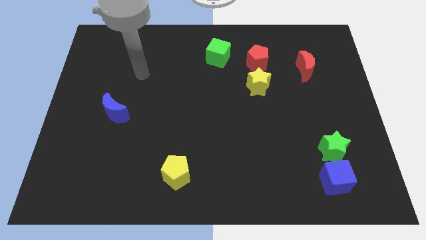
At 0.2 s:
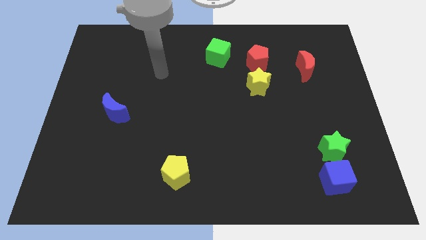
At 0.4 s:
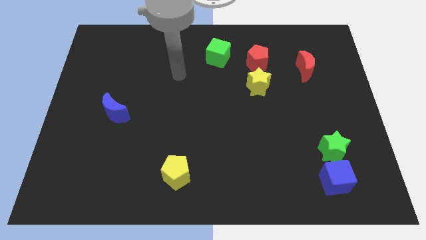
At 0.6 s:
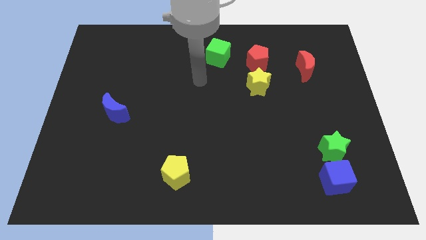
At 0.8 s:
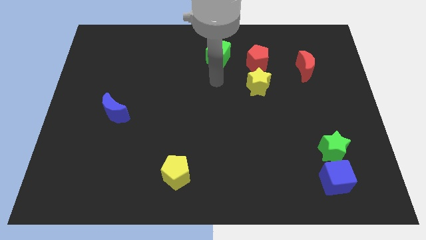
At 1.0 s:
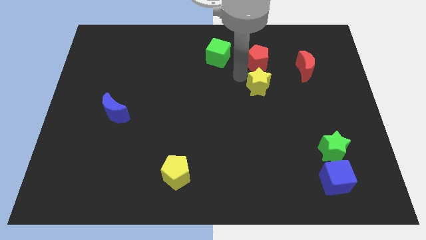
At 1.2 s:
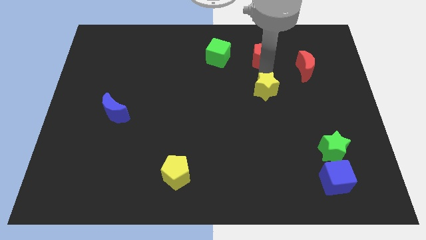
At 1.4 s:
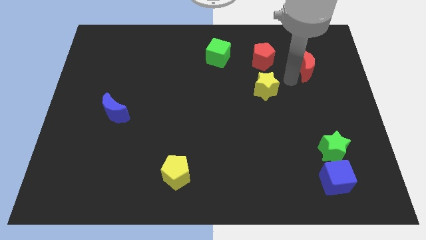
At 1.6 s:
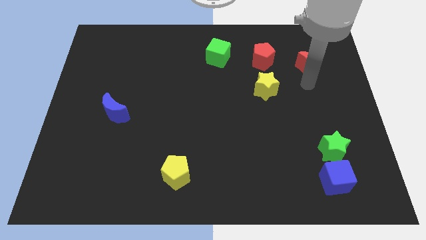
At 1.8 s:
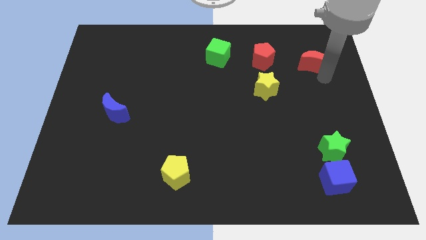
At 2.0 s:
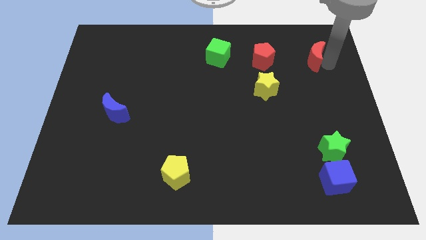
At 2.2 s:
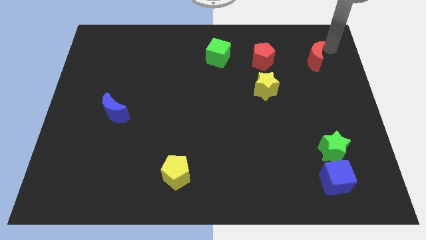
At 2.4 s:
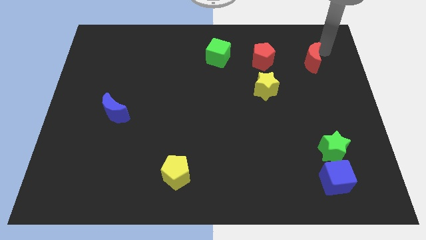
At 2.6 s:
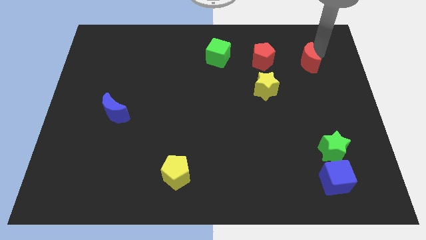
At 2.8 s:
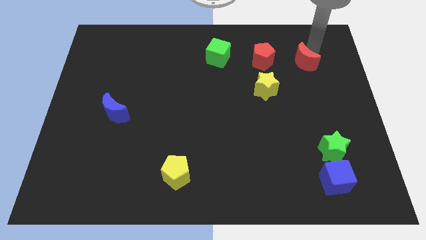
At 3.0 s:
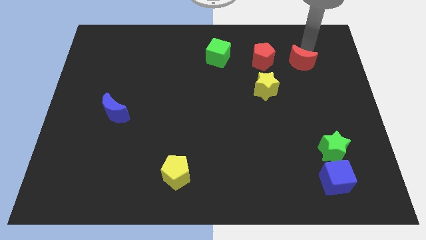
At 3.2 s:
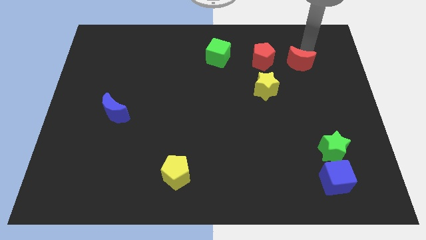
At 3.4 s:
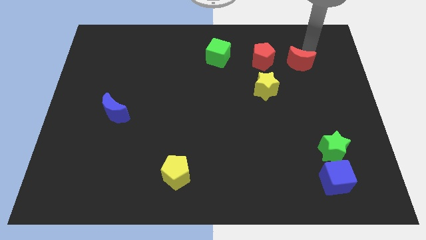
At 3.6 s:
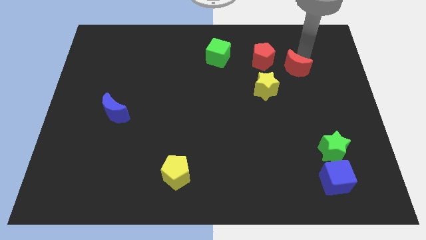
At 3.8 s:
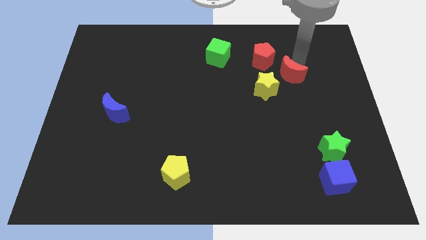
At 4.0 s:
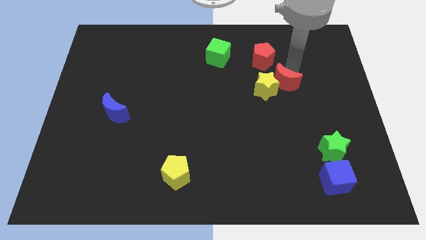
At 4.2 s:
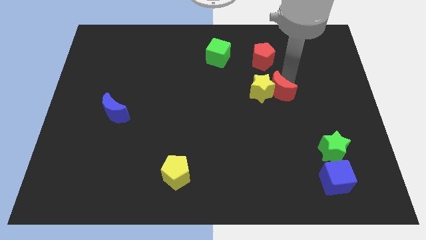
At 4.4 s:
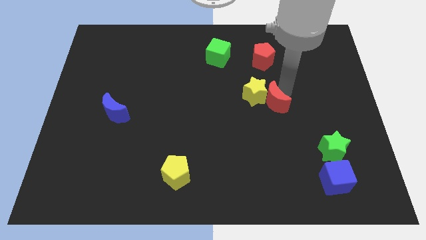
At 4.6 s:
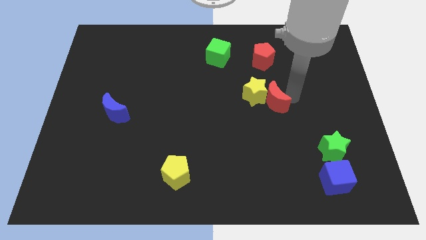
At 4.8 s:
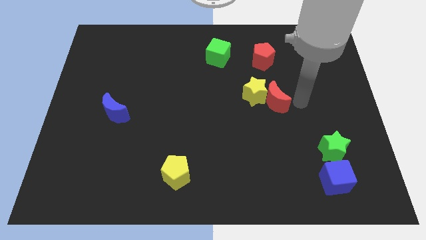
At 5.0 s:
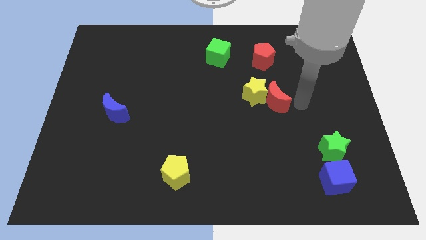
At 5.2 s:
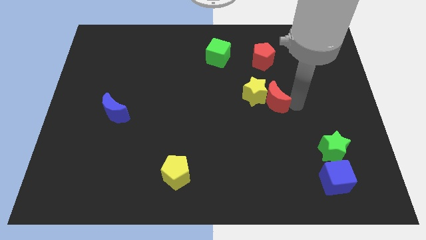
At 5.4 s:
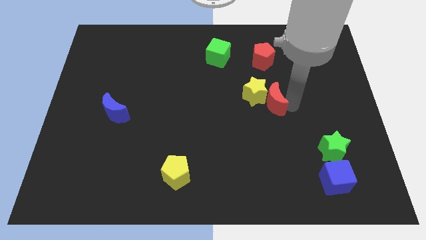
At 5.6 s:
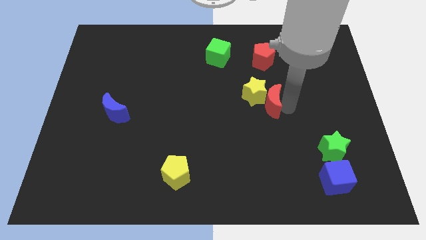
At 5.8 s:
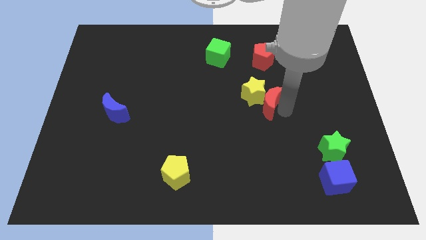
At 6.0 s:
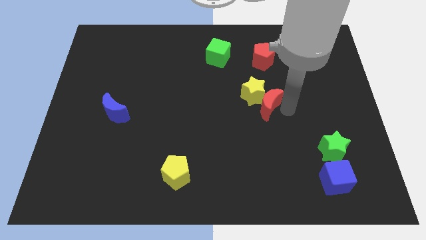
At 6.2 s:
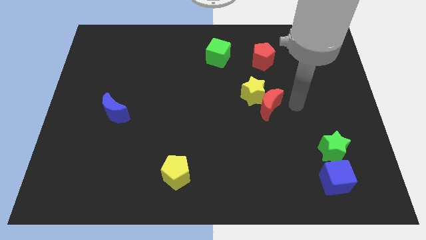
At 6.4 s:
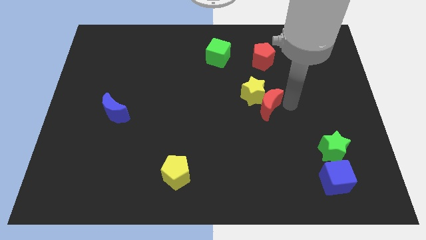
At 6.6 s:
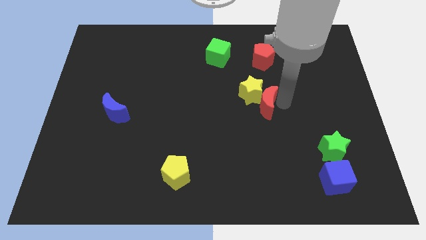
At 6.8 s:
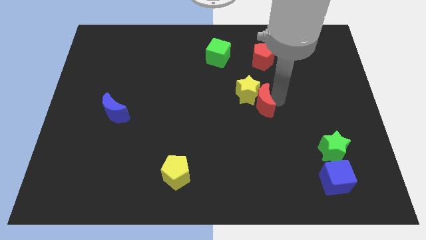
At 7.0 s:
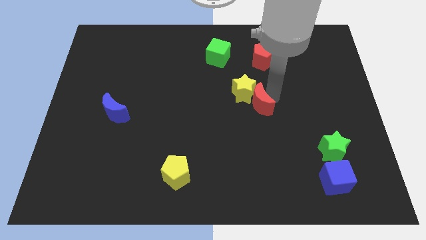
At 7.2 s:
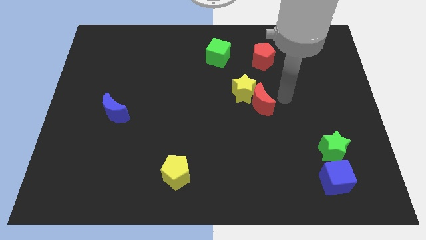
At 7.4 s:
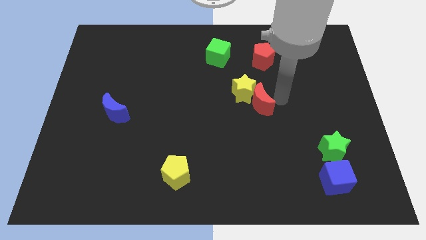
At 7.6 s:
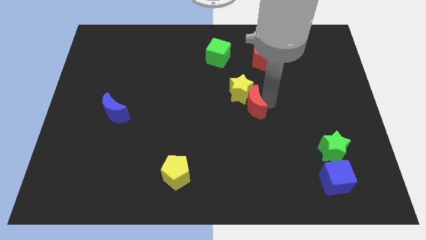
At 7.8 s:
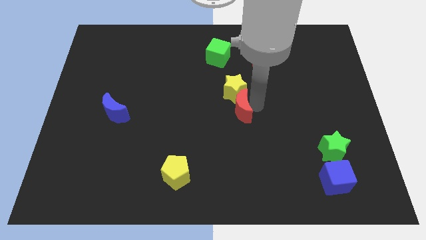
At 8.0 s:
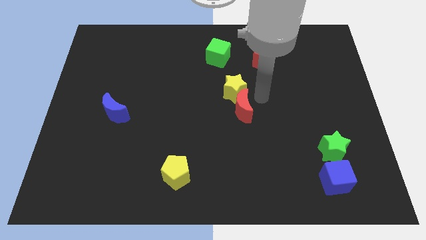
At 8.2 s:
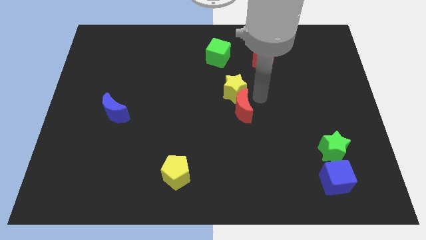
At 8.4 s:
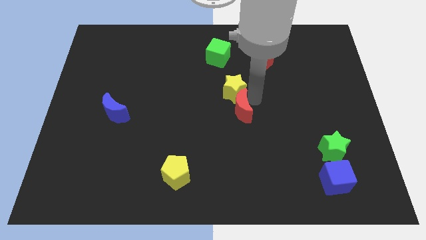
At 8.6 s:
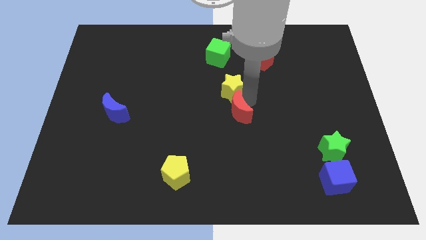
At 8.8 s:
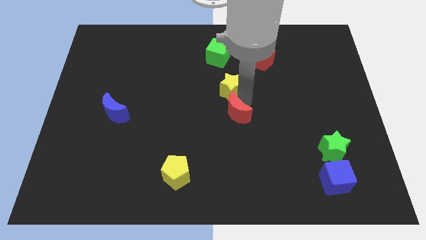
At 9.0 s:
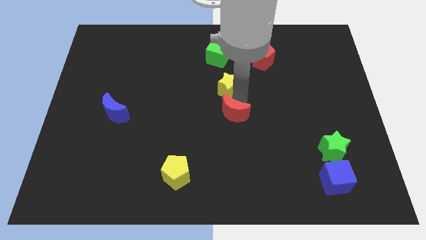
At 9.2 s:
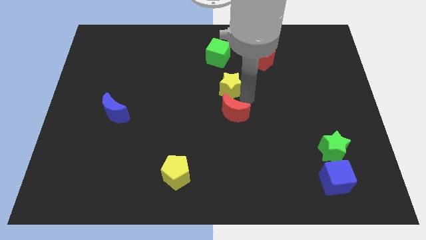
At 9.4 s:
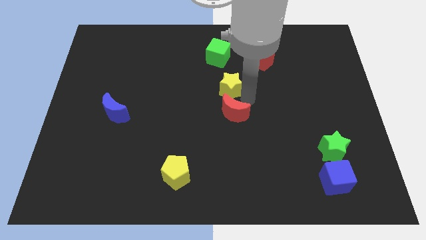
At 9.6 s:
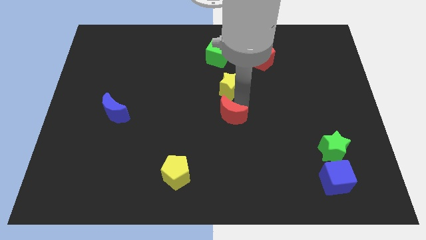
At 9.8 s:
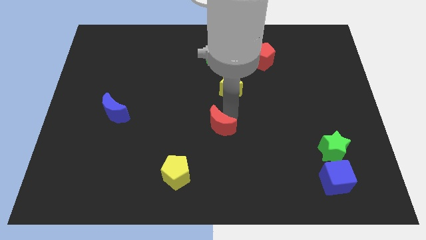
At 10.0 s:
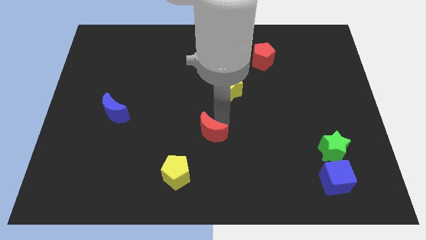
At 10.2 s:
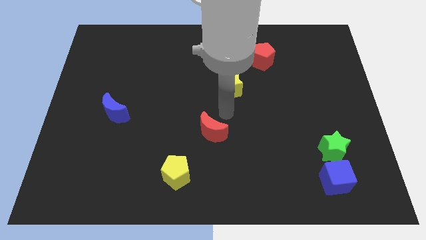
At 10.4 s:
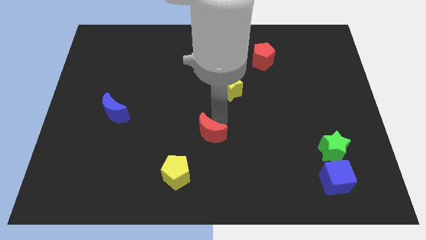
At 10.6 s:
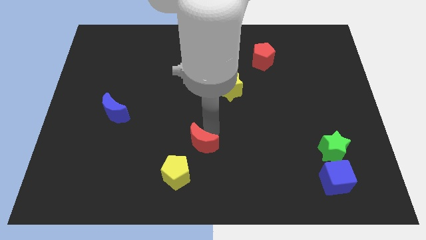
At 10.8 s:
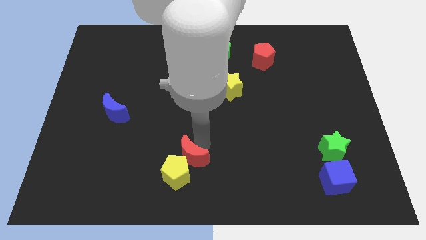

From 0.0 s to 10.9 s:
slide the red moon towards the yellow pentagon

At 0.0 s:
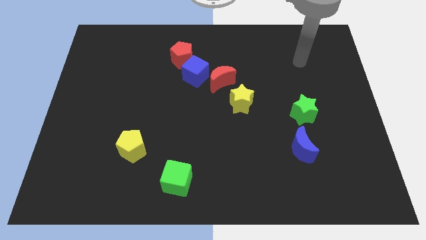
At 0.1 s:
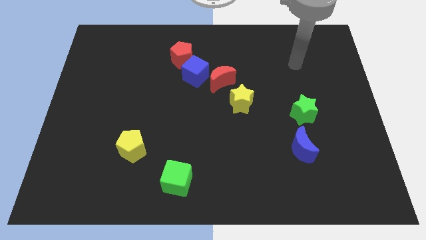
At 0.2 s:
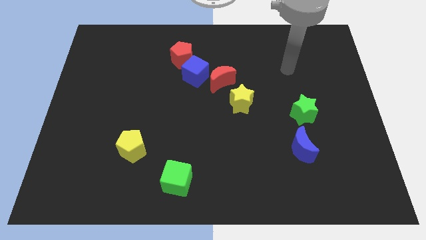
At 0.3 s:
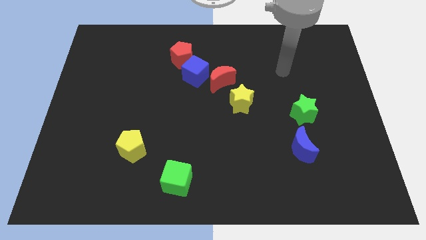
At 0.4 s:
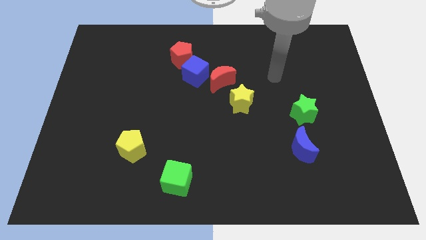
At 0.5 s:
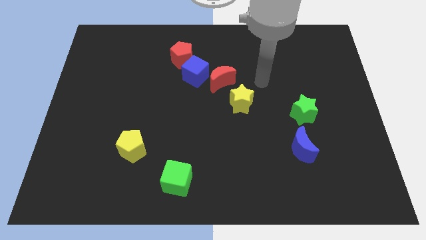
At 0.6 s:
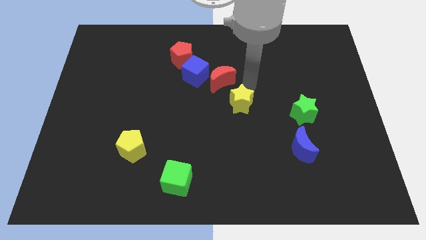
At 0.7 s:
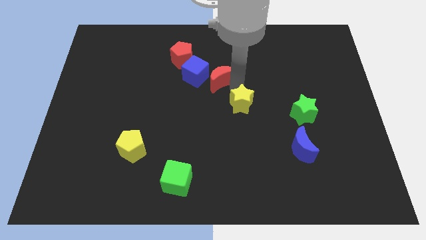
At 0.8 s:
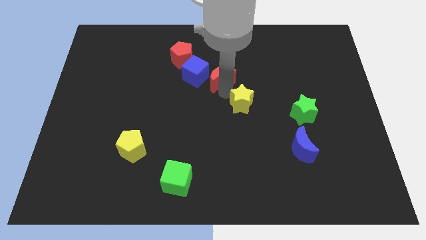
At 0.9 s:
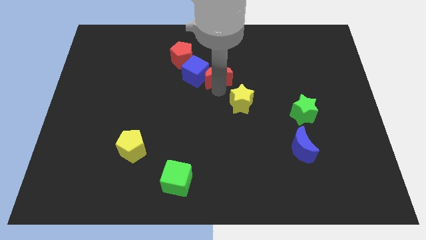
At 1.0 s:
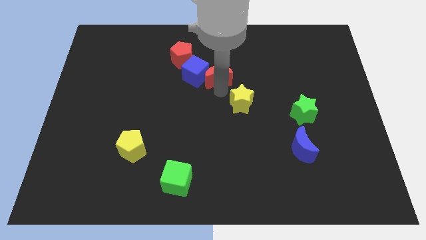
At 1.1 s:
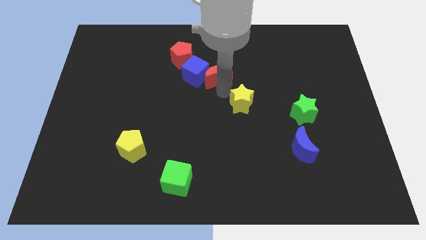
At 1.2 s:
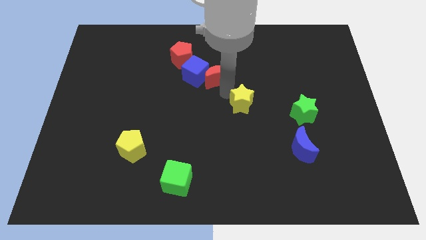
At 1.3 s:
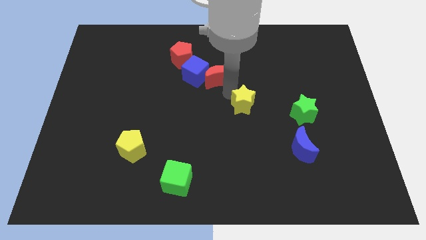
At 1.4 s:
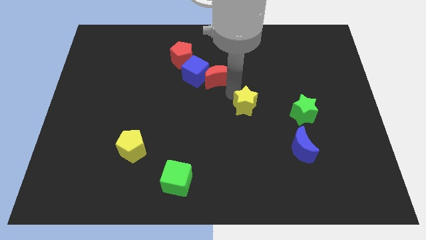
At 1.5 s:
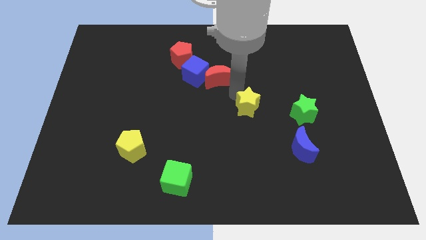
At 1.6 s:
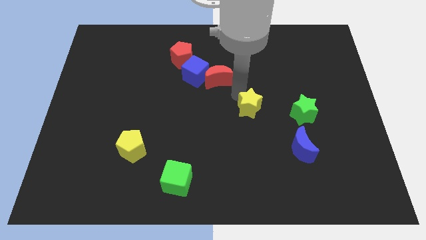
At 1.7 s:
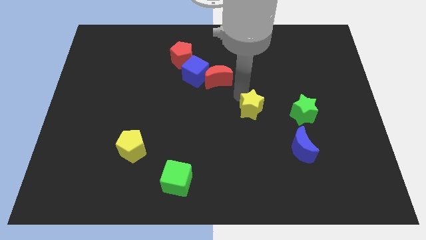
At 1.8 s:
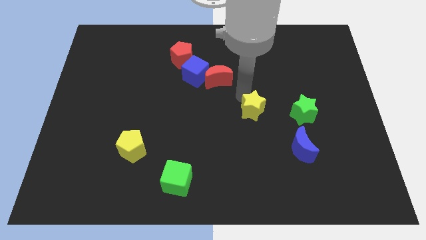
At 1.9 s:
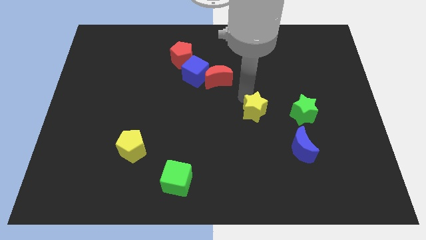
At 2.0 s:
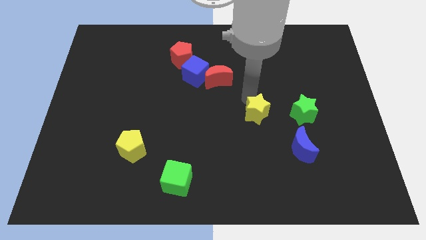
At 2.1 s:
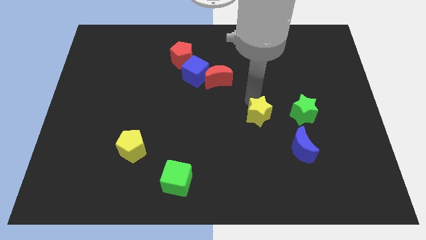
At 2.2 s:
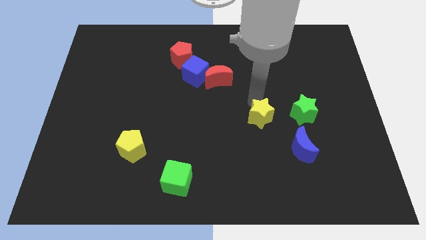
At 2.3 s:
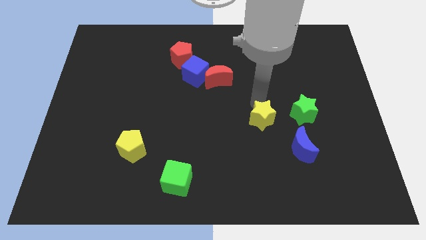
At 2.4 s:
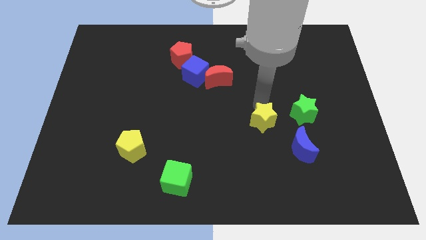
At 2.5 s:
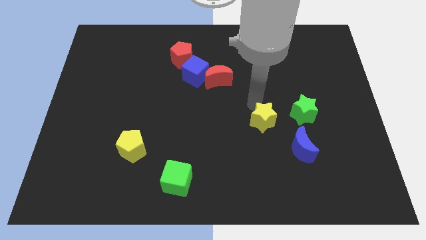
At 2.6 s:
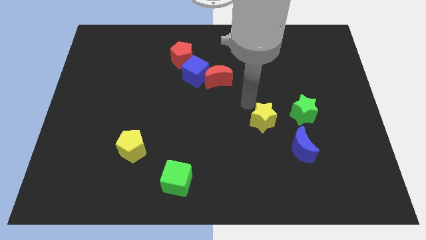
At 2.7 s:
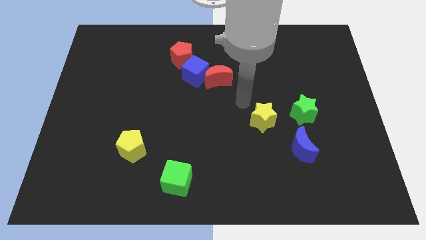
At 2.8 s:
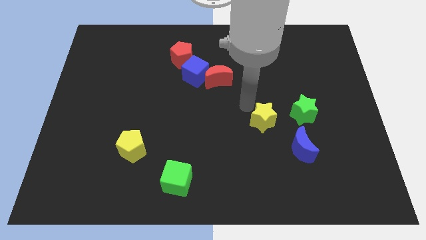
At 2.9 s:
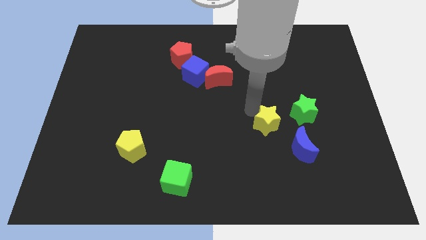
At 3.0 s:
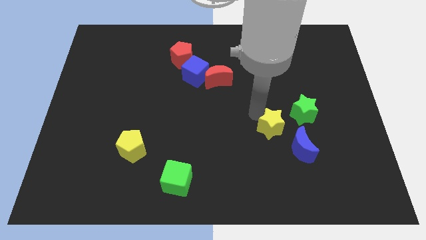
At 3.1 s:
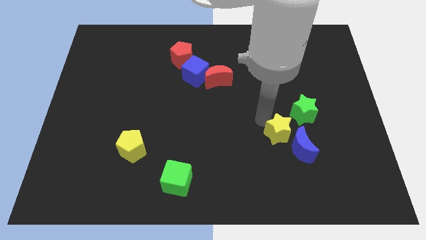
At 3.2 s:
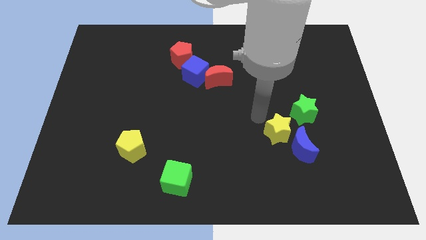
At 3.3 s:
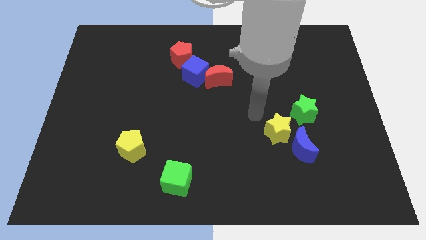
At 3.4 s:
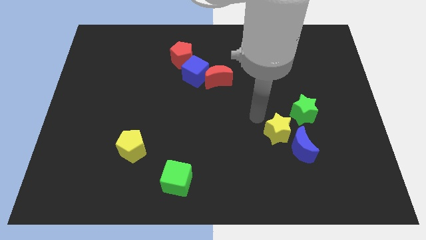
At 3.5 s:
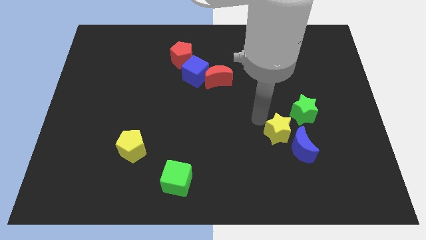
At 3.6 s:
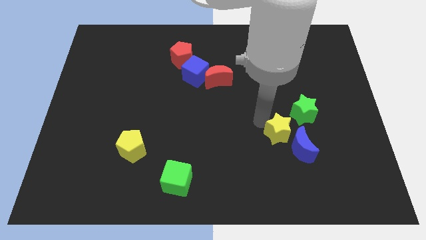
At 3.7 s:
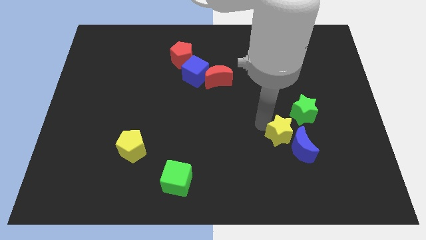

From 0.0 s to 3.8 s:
push the yellow star close to the blue moon
